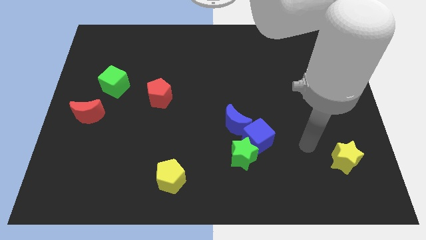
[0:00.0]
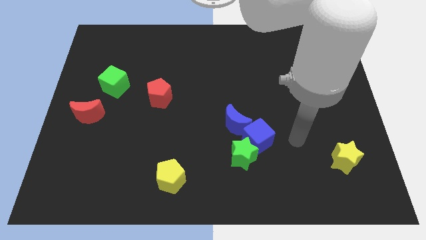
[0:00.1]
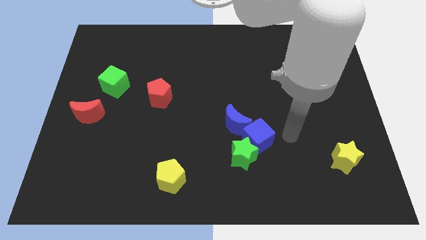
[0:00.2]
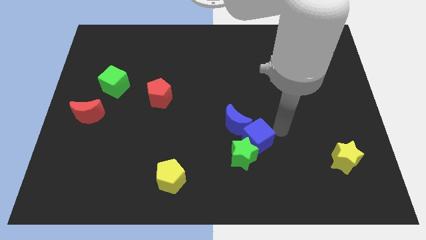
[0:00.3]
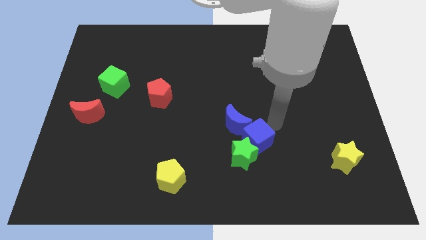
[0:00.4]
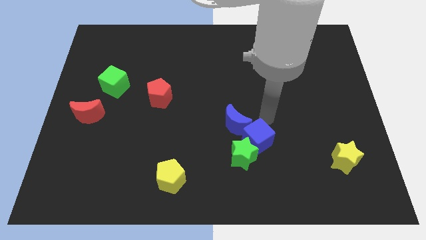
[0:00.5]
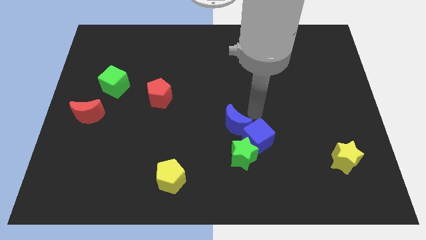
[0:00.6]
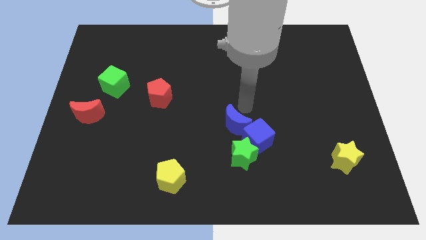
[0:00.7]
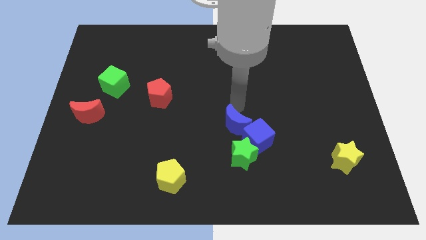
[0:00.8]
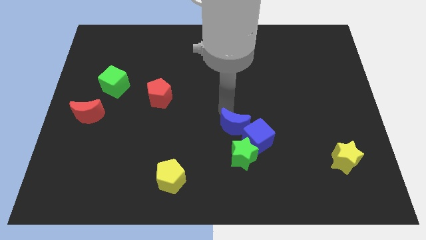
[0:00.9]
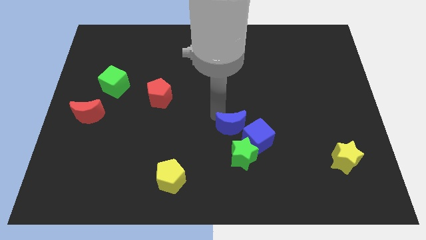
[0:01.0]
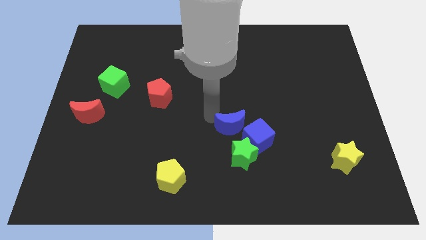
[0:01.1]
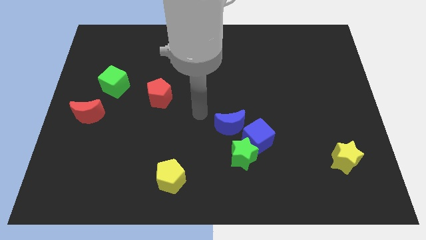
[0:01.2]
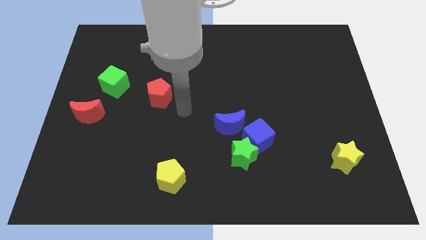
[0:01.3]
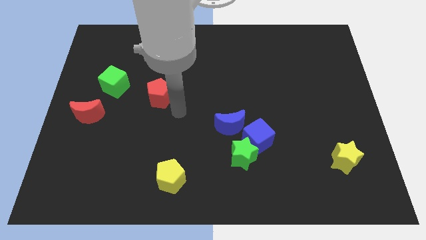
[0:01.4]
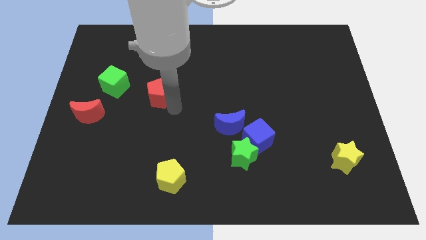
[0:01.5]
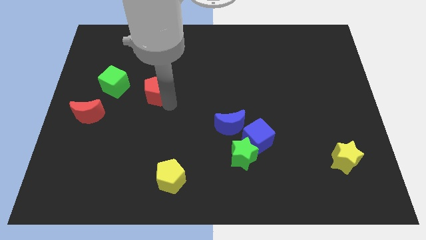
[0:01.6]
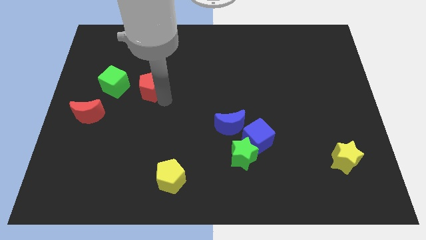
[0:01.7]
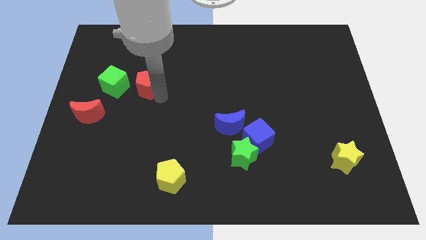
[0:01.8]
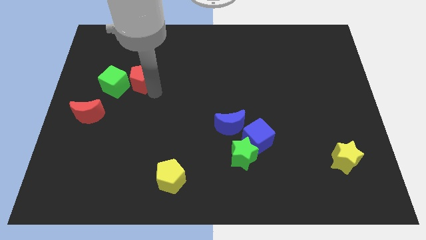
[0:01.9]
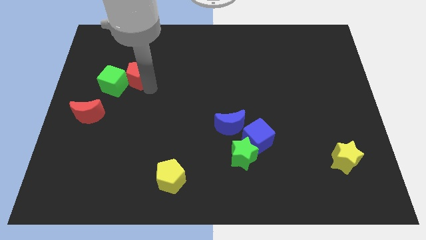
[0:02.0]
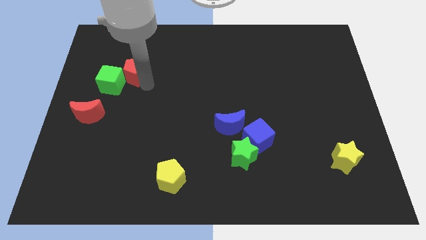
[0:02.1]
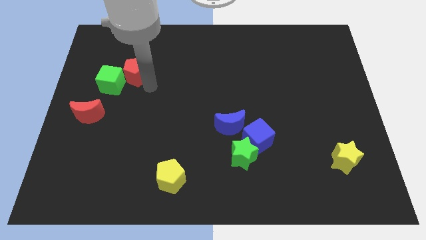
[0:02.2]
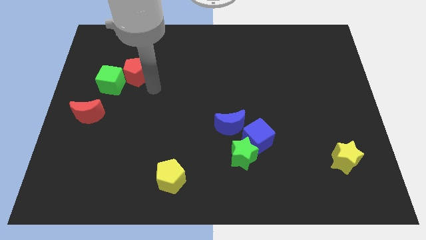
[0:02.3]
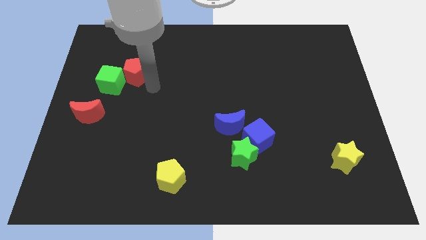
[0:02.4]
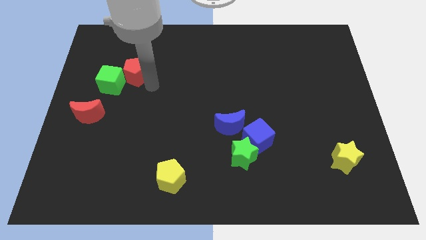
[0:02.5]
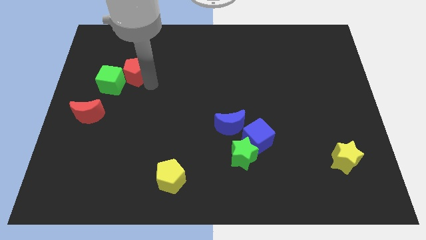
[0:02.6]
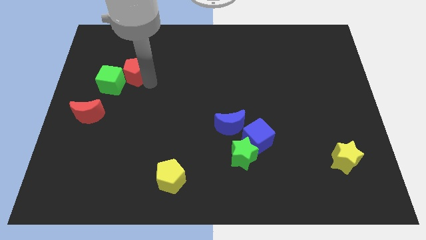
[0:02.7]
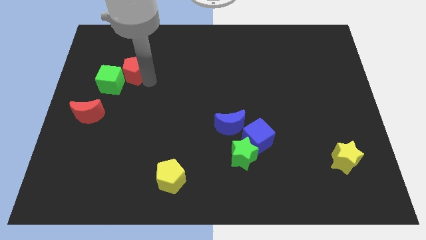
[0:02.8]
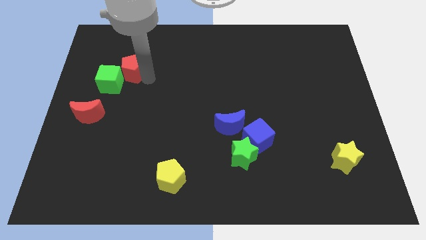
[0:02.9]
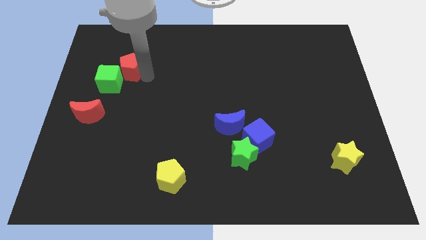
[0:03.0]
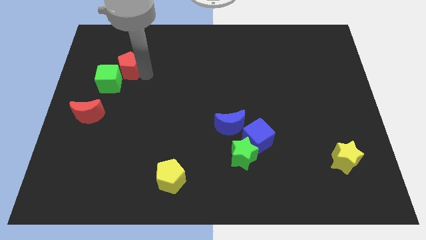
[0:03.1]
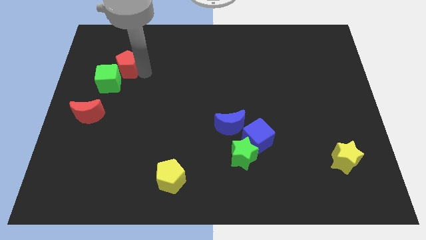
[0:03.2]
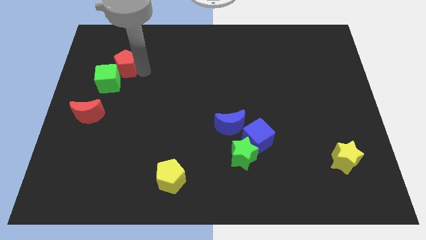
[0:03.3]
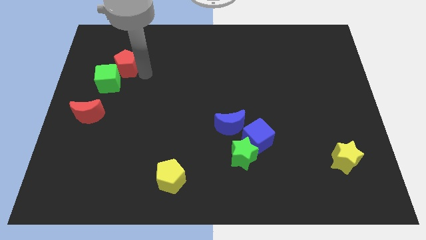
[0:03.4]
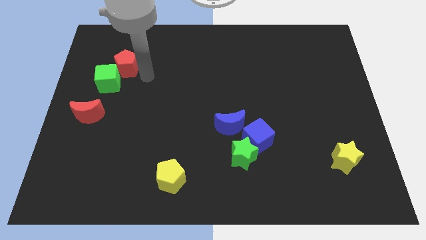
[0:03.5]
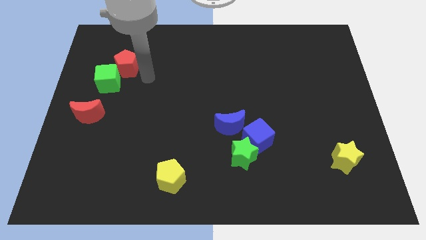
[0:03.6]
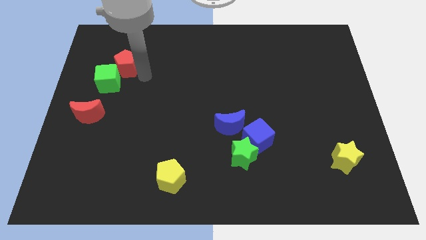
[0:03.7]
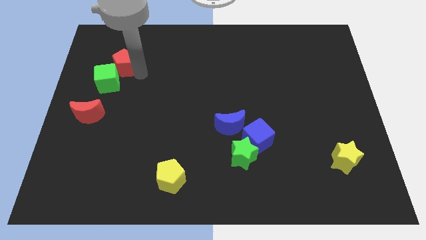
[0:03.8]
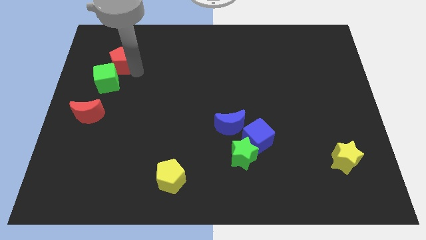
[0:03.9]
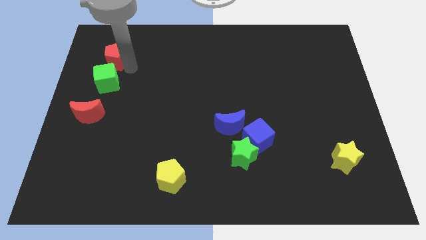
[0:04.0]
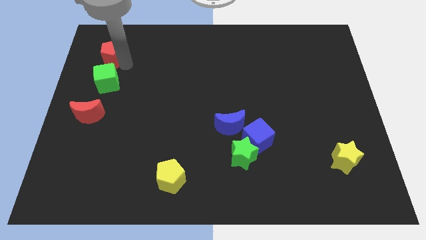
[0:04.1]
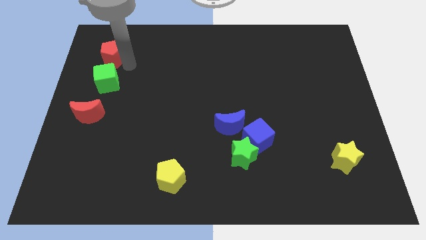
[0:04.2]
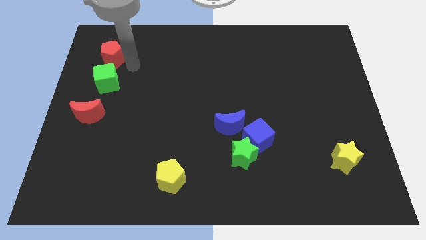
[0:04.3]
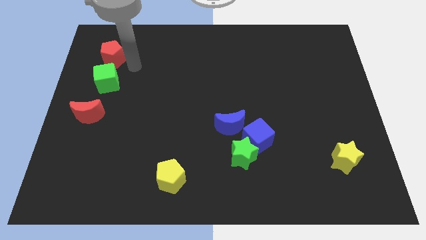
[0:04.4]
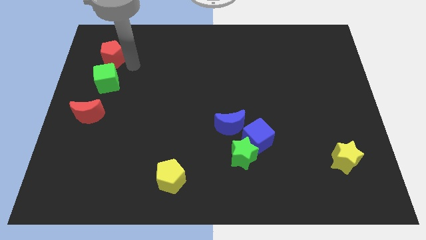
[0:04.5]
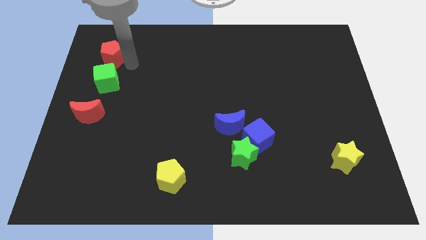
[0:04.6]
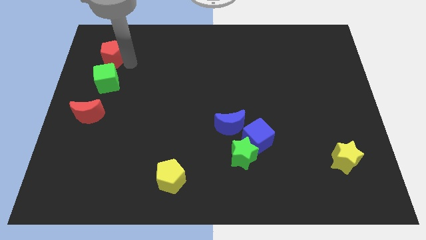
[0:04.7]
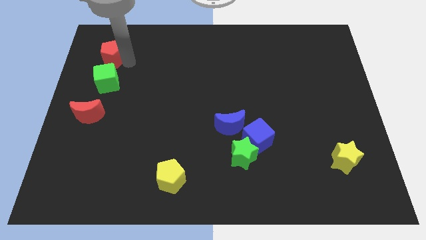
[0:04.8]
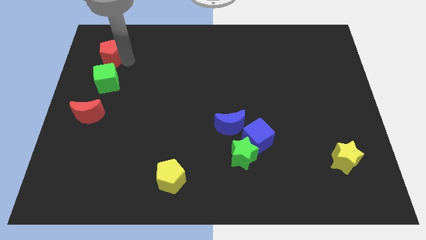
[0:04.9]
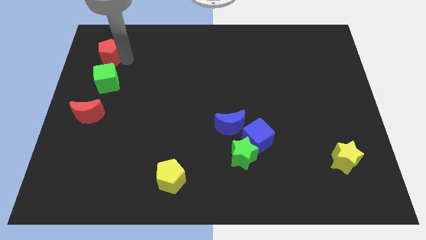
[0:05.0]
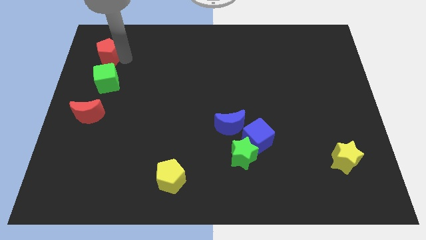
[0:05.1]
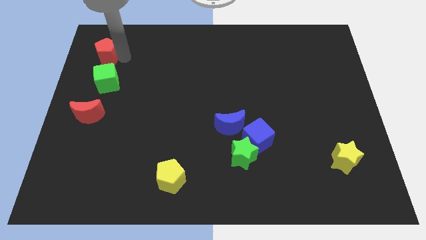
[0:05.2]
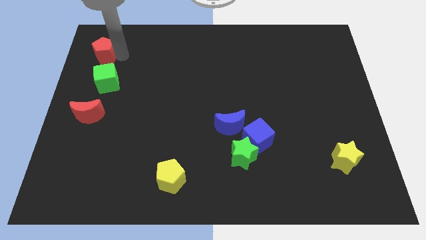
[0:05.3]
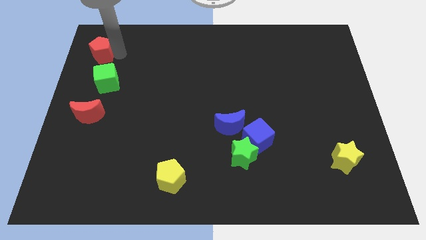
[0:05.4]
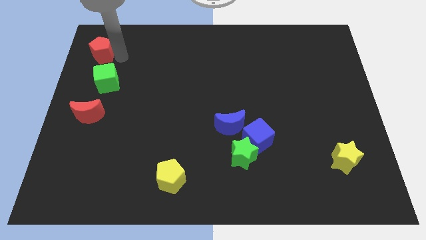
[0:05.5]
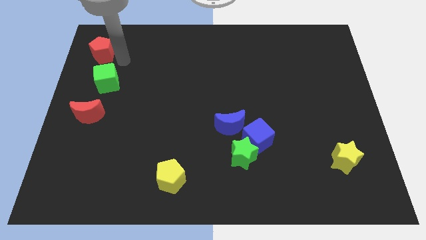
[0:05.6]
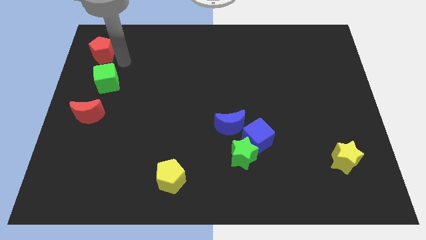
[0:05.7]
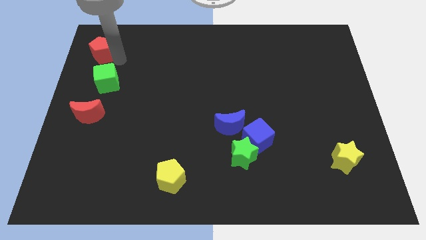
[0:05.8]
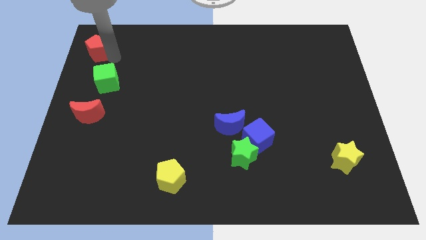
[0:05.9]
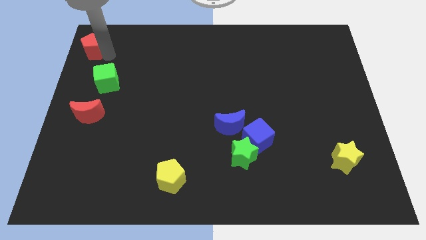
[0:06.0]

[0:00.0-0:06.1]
move the red pentagon to the top left

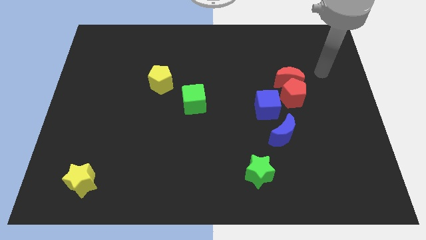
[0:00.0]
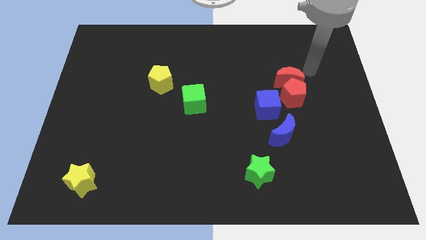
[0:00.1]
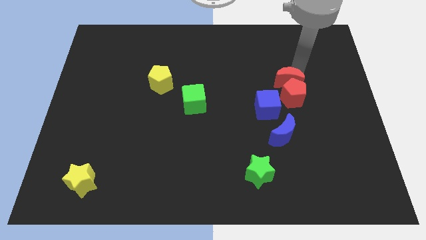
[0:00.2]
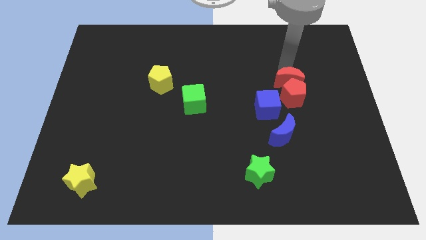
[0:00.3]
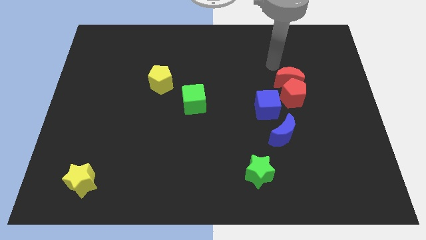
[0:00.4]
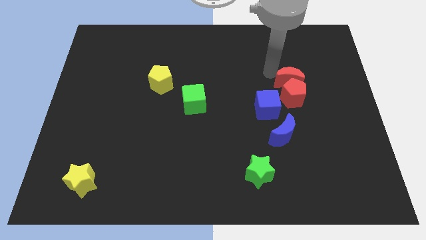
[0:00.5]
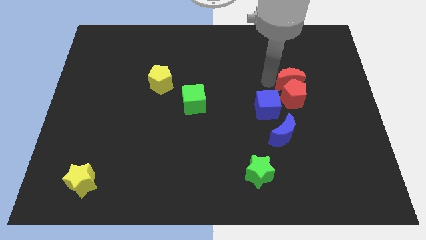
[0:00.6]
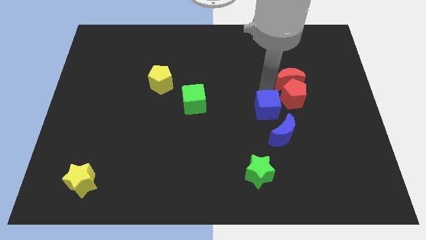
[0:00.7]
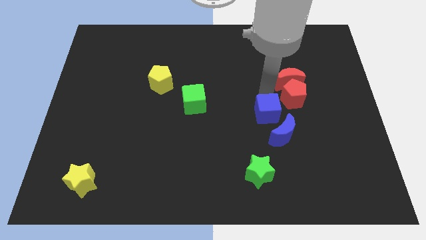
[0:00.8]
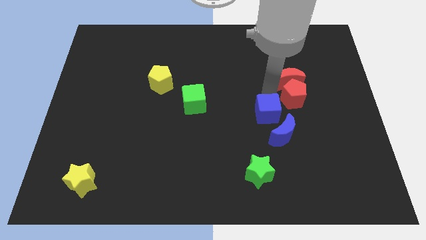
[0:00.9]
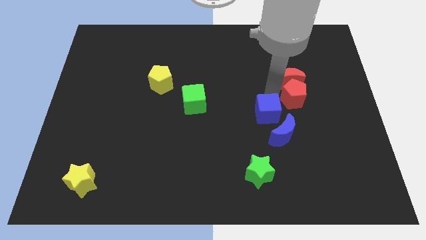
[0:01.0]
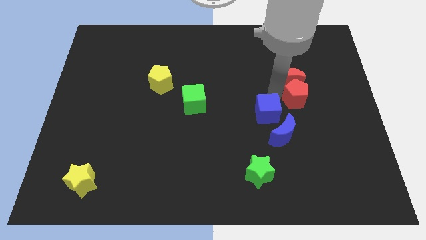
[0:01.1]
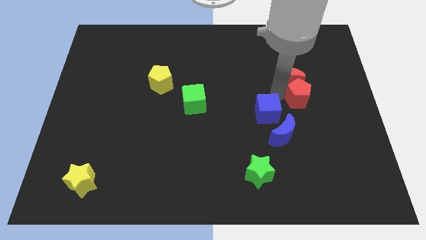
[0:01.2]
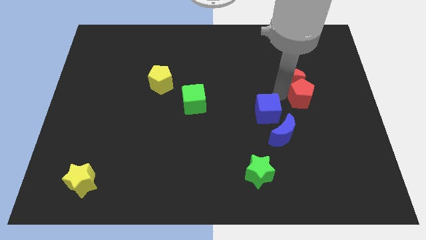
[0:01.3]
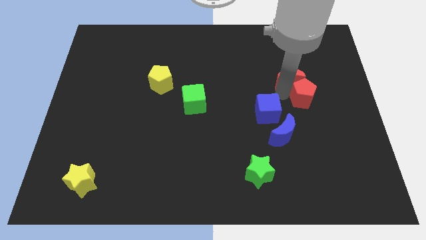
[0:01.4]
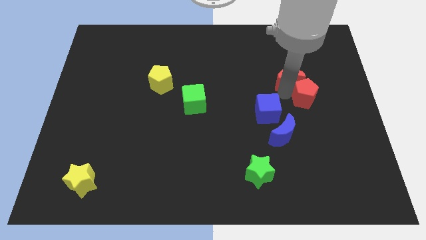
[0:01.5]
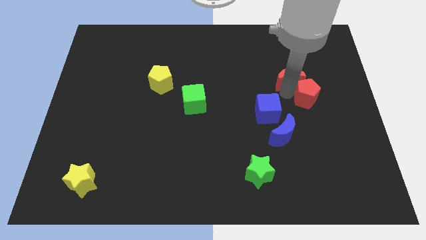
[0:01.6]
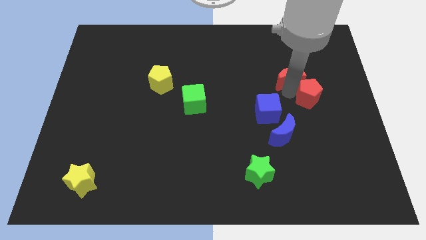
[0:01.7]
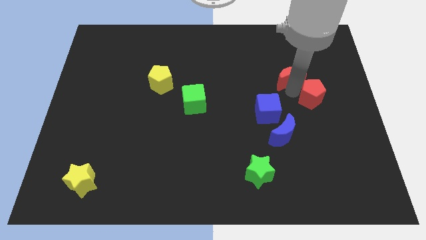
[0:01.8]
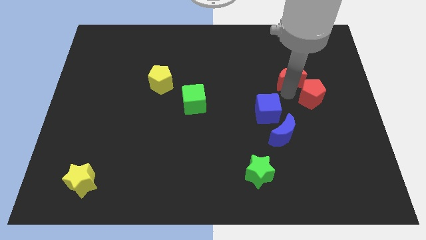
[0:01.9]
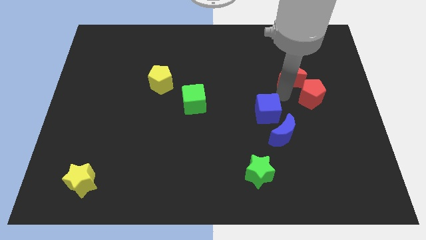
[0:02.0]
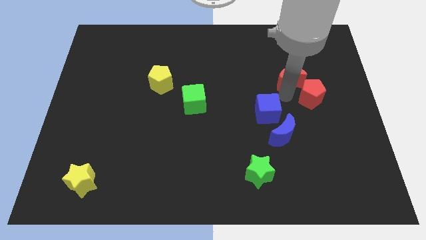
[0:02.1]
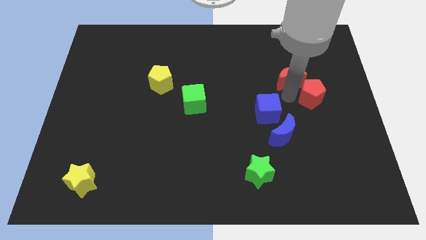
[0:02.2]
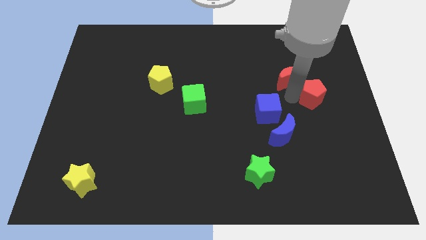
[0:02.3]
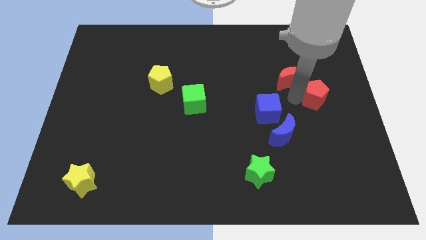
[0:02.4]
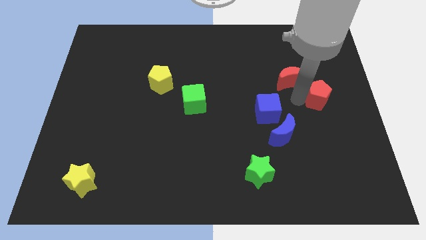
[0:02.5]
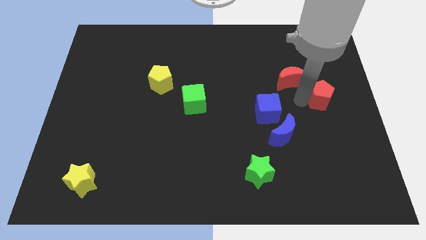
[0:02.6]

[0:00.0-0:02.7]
move the red pentagon to the right side
